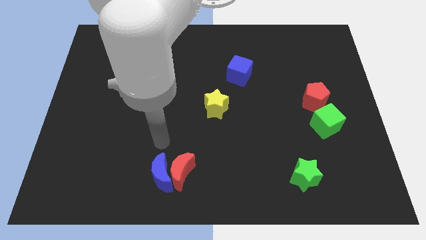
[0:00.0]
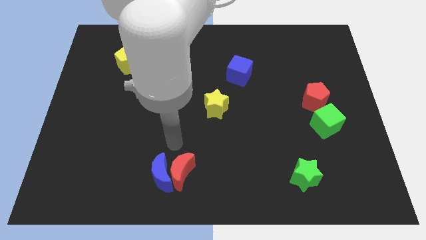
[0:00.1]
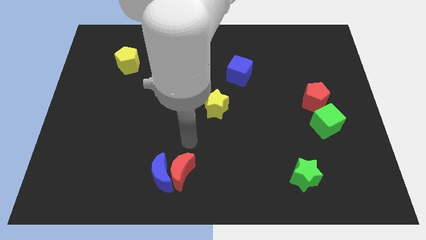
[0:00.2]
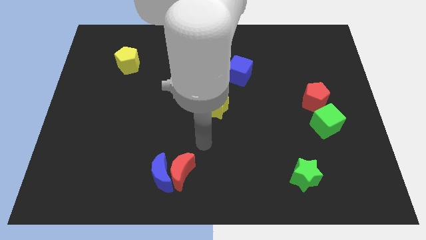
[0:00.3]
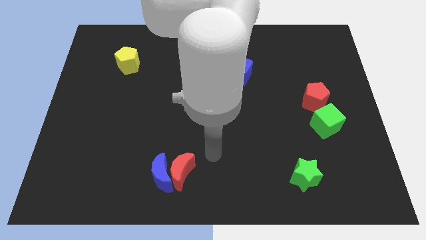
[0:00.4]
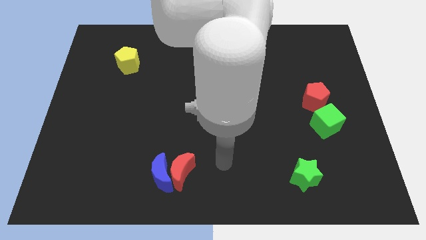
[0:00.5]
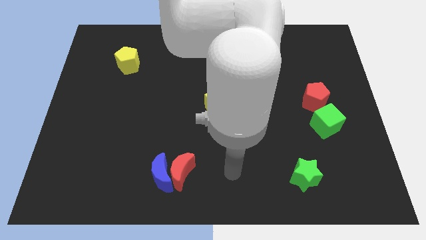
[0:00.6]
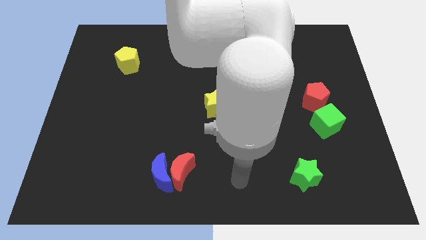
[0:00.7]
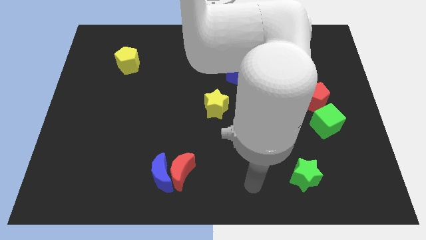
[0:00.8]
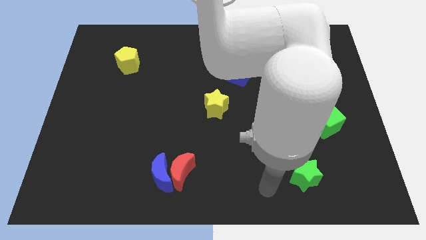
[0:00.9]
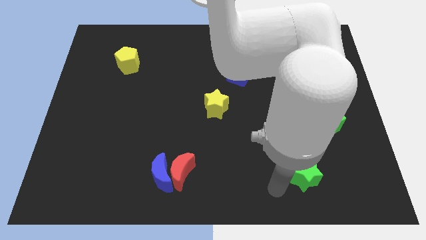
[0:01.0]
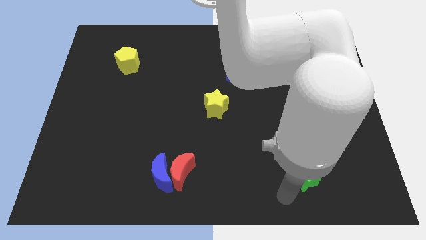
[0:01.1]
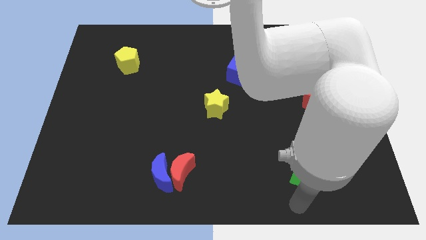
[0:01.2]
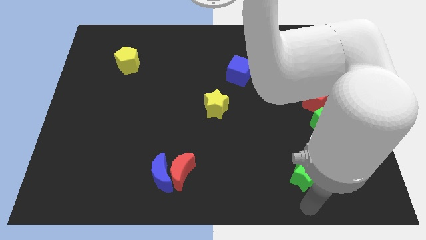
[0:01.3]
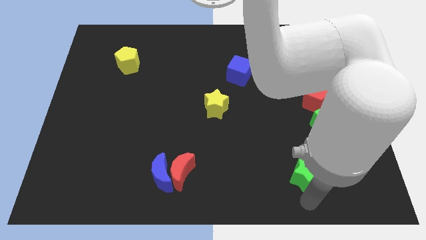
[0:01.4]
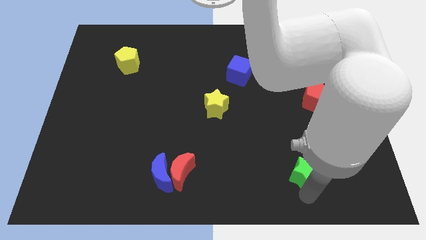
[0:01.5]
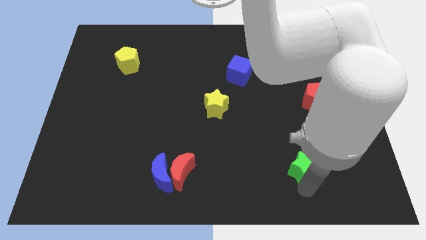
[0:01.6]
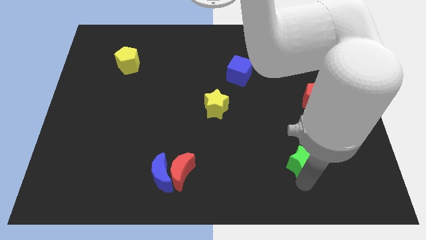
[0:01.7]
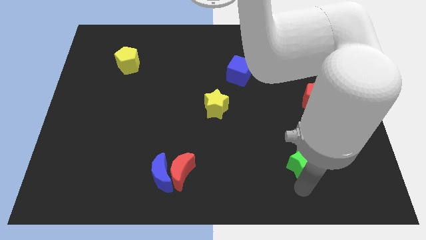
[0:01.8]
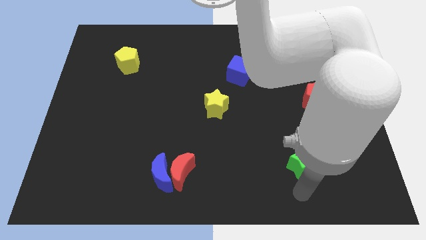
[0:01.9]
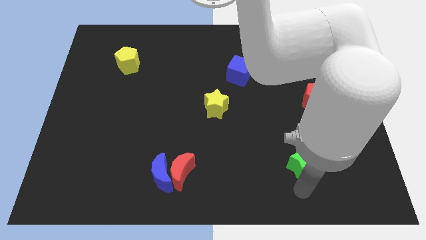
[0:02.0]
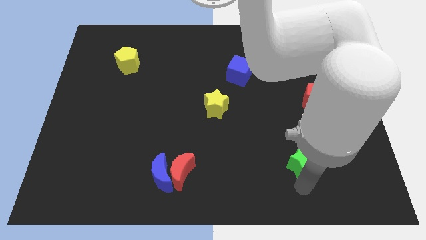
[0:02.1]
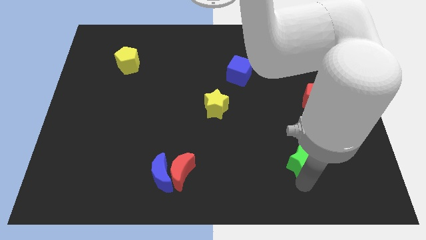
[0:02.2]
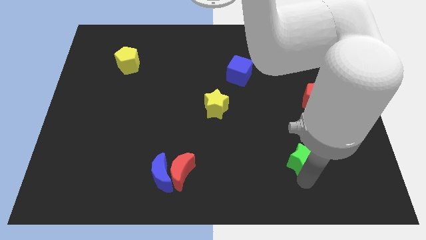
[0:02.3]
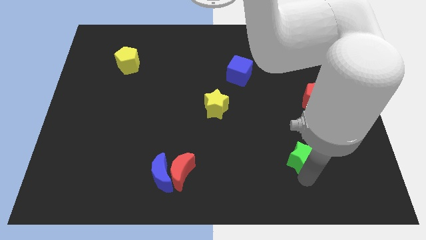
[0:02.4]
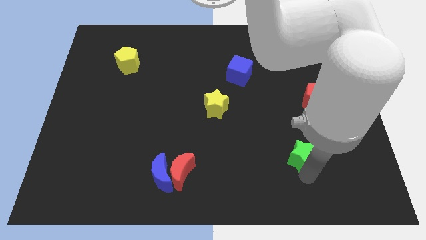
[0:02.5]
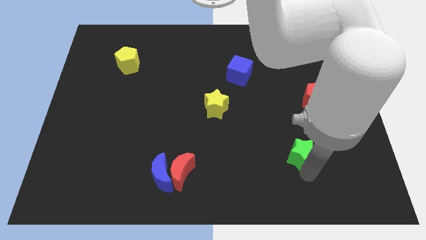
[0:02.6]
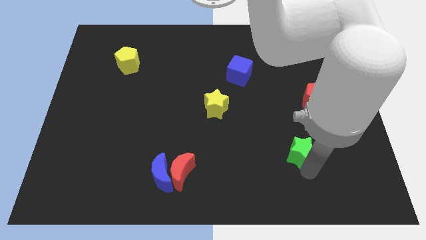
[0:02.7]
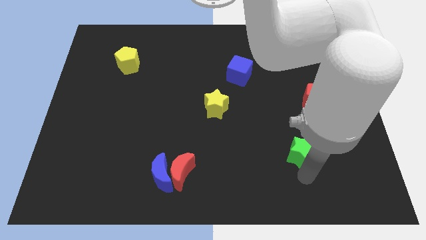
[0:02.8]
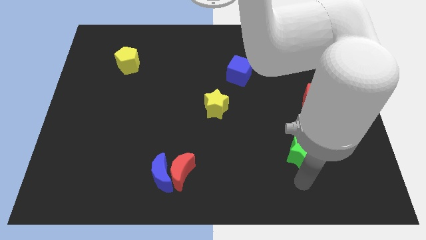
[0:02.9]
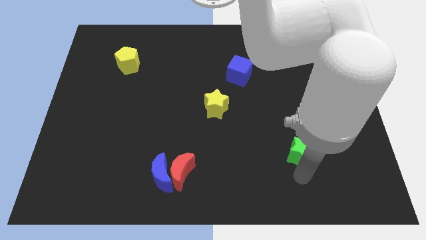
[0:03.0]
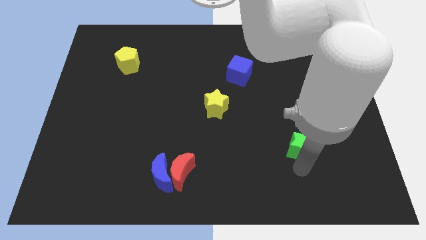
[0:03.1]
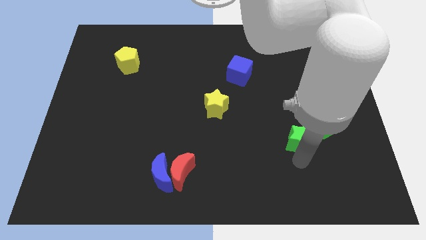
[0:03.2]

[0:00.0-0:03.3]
push the green star upwards slightly

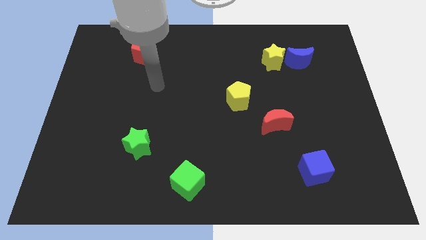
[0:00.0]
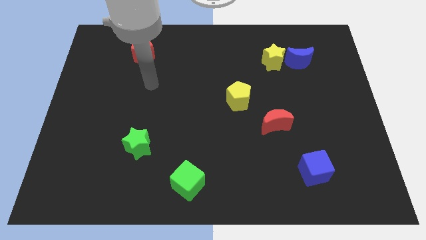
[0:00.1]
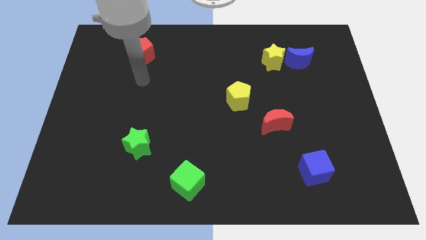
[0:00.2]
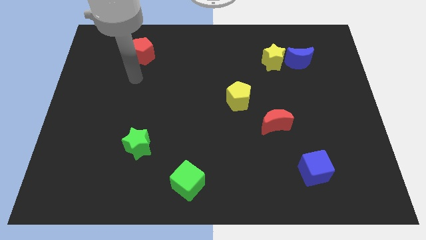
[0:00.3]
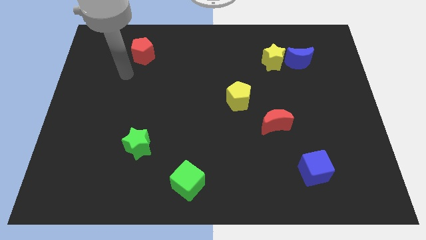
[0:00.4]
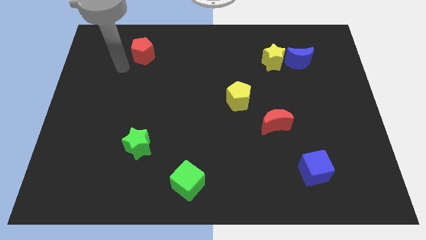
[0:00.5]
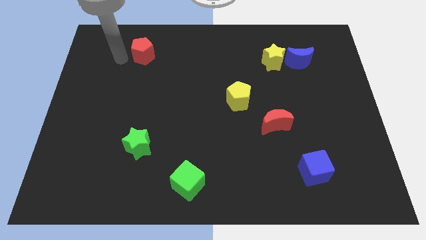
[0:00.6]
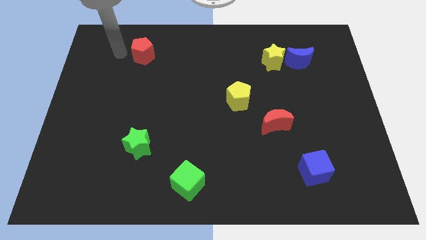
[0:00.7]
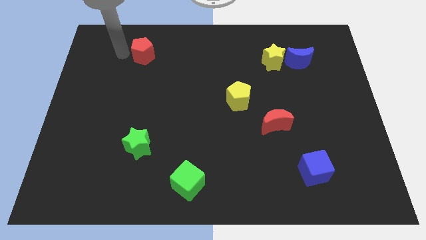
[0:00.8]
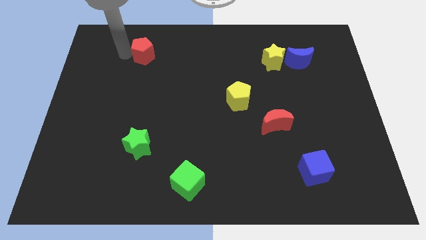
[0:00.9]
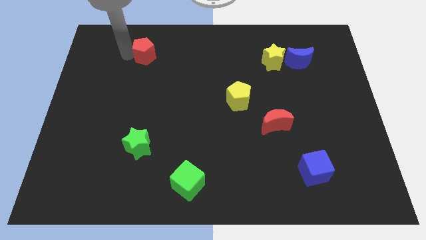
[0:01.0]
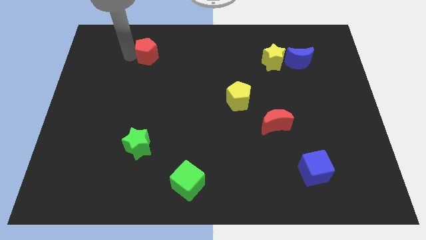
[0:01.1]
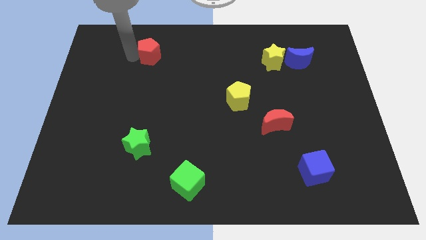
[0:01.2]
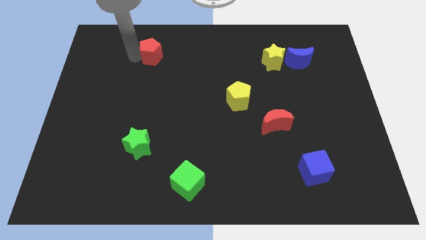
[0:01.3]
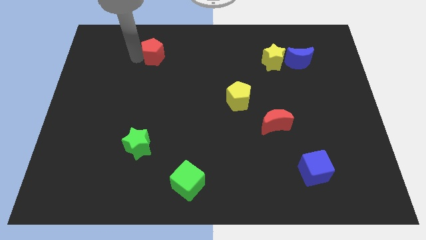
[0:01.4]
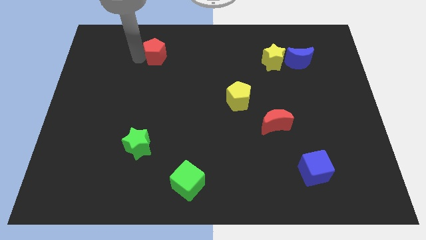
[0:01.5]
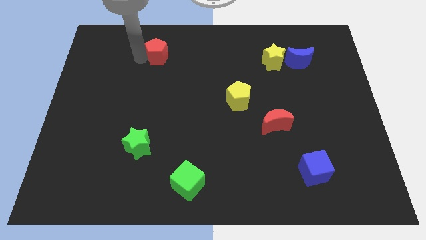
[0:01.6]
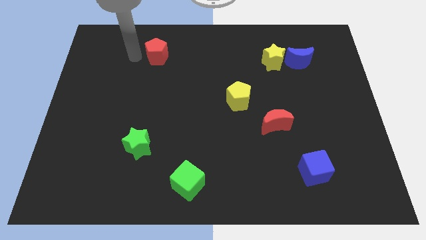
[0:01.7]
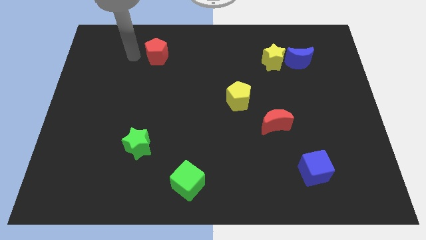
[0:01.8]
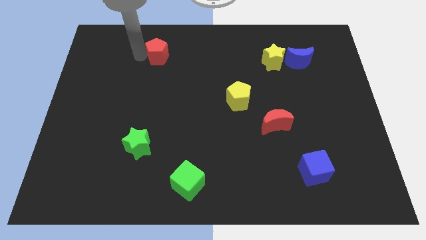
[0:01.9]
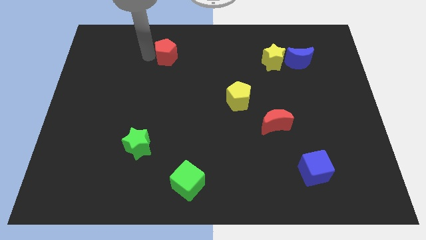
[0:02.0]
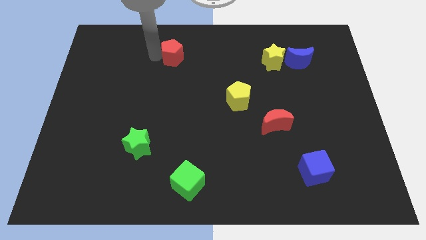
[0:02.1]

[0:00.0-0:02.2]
move the red pentagon slightly to the right

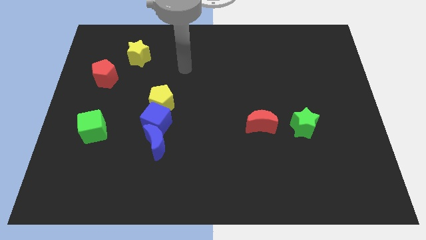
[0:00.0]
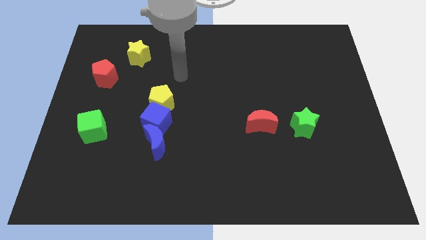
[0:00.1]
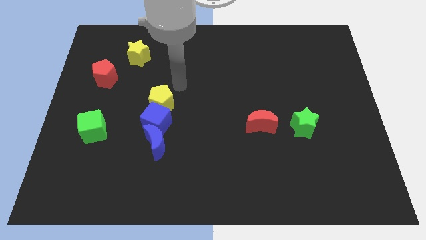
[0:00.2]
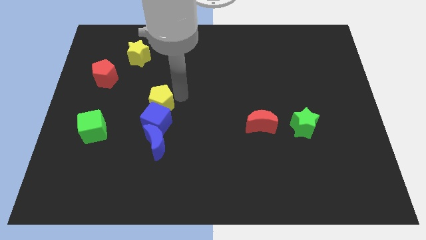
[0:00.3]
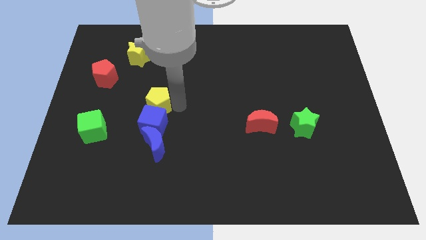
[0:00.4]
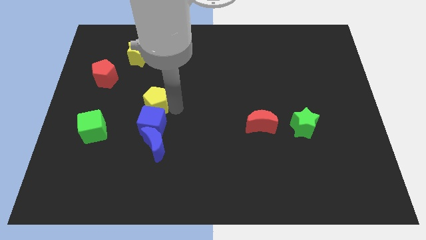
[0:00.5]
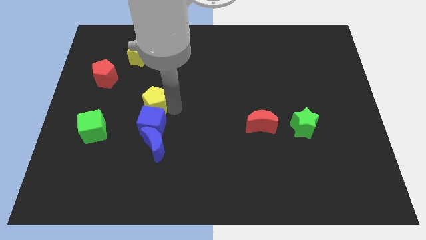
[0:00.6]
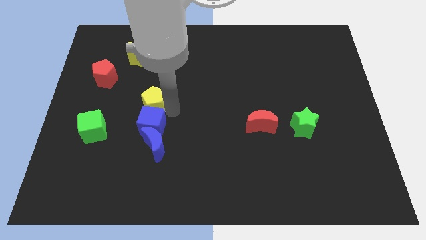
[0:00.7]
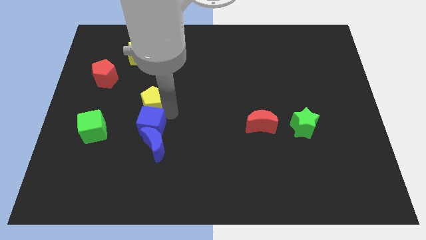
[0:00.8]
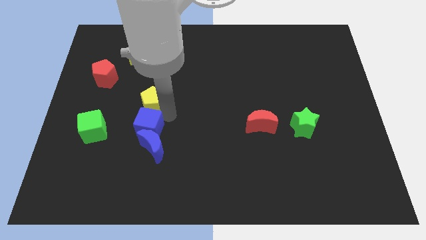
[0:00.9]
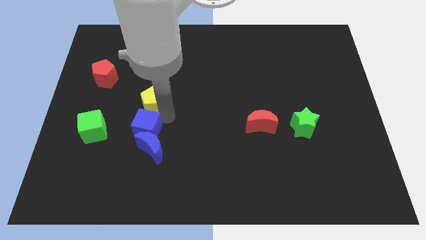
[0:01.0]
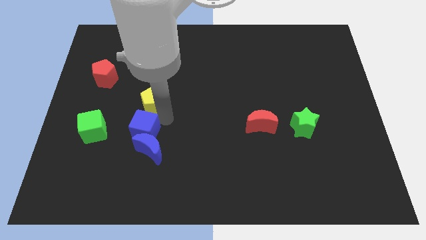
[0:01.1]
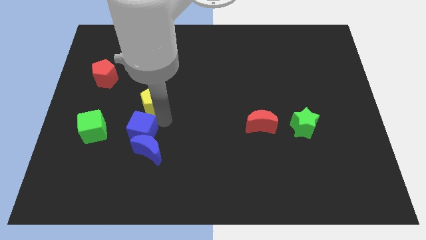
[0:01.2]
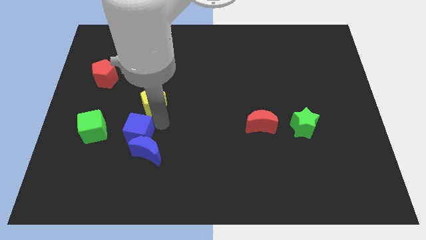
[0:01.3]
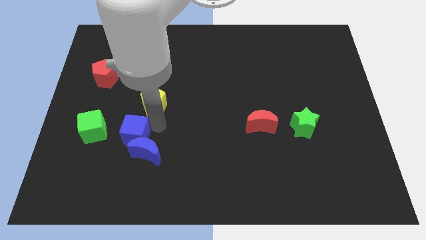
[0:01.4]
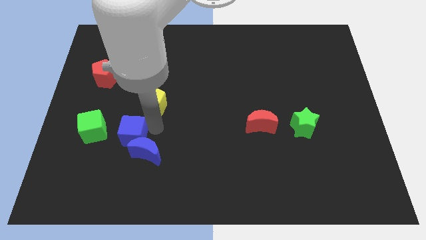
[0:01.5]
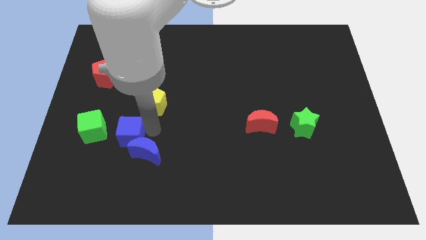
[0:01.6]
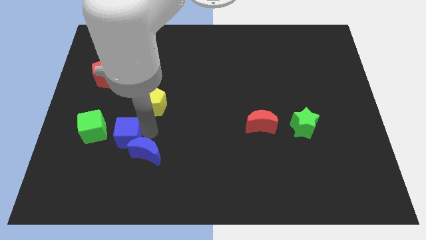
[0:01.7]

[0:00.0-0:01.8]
slide the blue cube diagonally down and to the left slightly

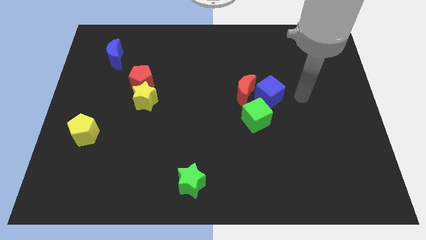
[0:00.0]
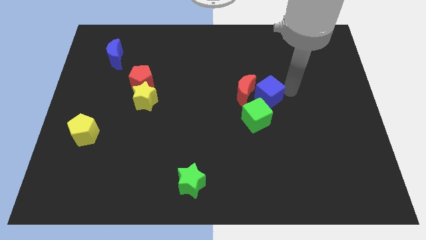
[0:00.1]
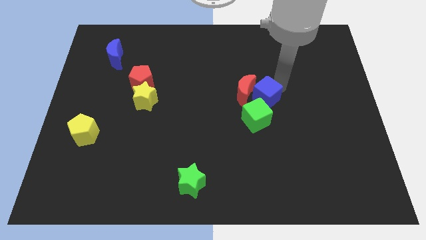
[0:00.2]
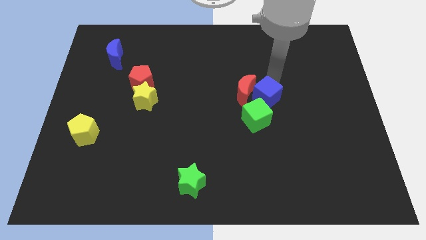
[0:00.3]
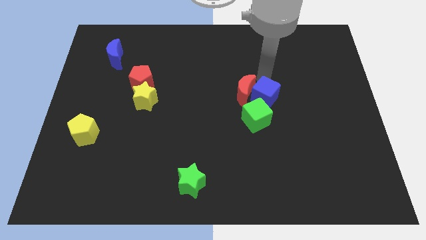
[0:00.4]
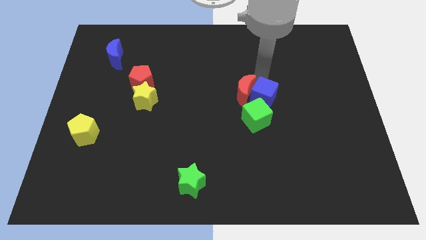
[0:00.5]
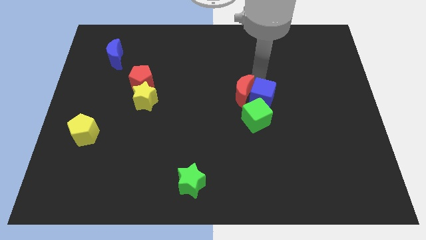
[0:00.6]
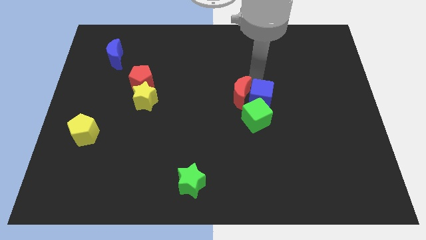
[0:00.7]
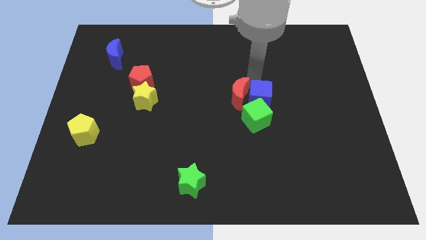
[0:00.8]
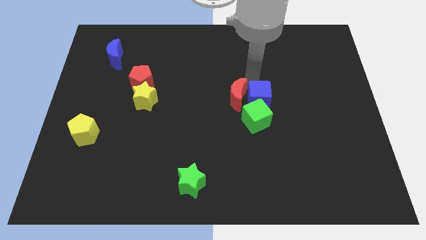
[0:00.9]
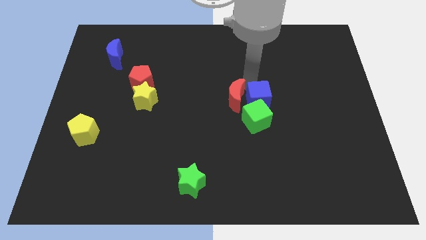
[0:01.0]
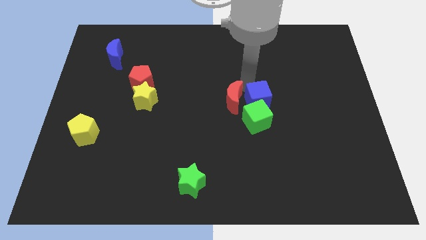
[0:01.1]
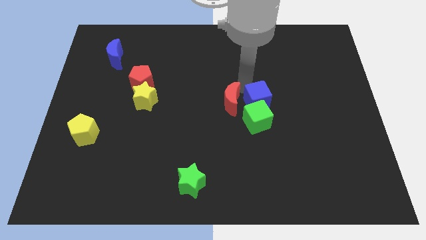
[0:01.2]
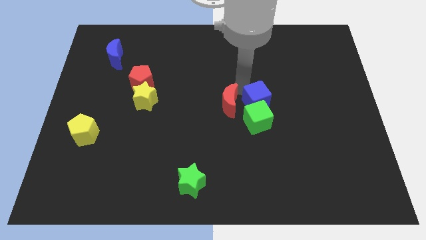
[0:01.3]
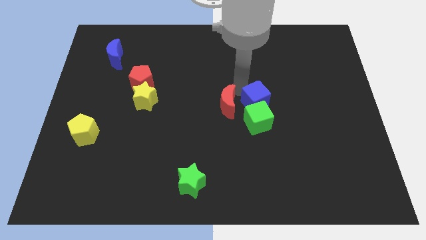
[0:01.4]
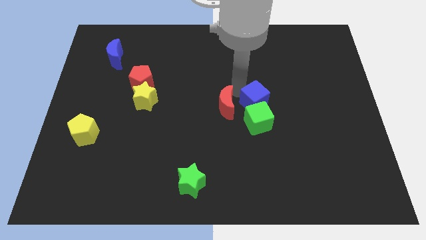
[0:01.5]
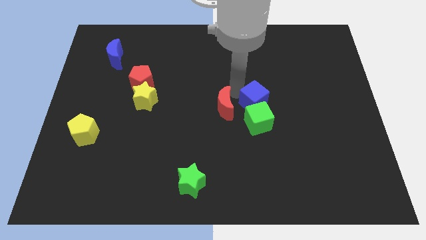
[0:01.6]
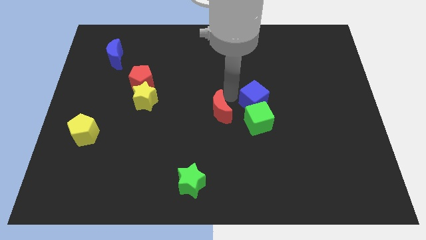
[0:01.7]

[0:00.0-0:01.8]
slightly push the red moon diagonally down and to the left
